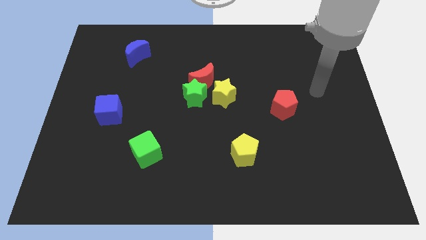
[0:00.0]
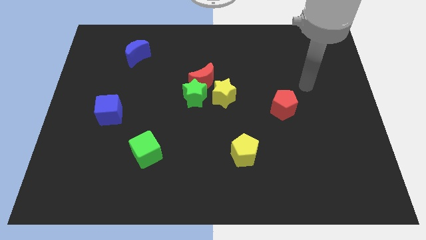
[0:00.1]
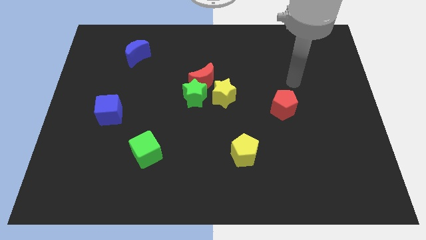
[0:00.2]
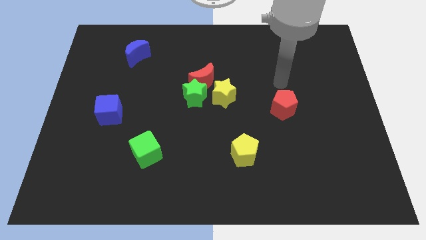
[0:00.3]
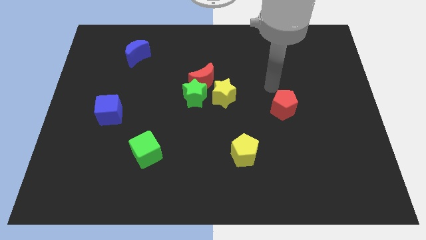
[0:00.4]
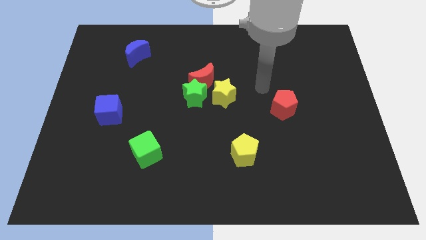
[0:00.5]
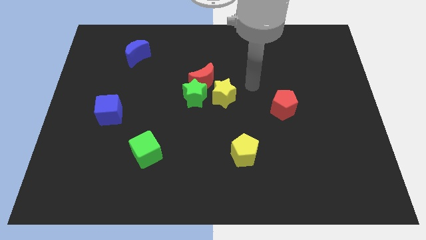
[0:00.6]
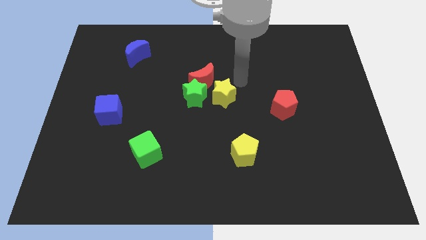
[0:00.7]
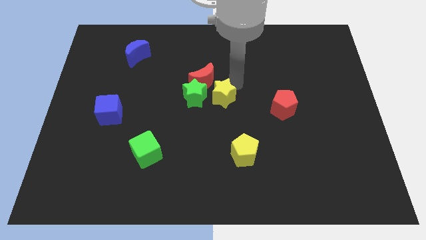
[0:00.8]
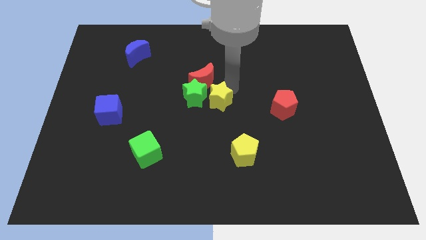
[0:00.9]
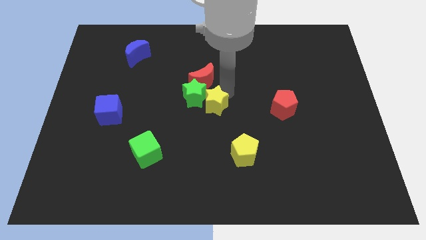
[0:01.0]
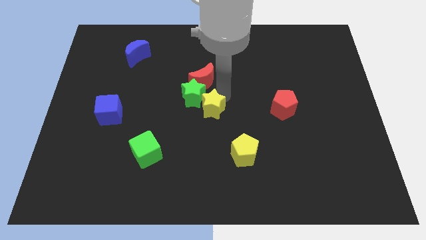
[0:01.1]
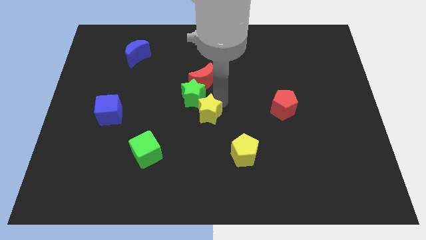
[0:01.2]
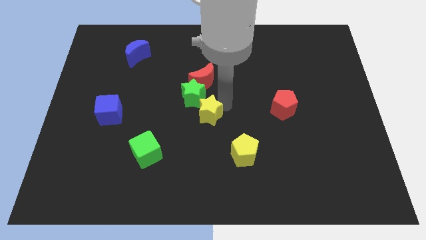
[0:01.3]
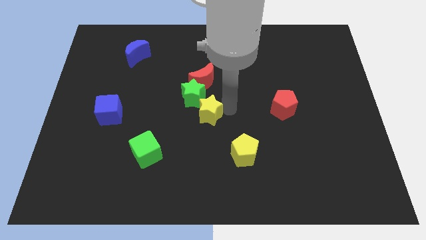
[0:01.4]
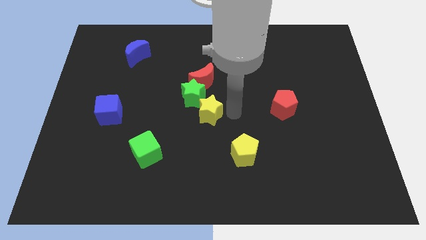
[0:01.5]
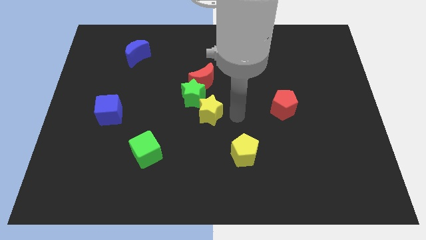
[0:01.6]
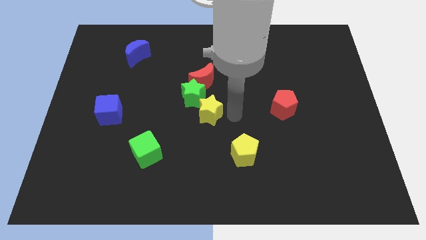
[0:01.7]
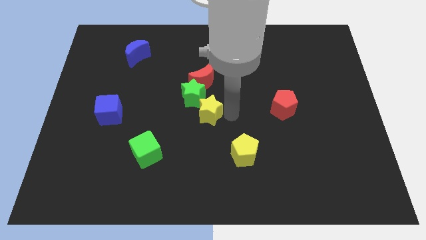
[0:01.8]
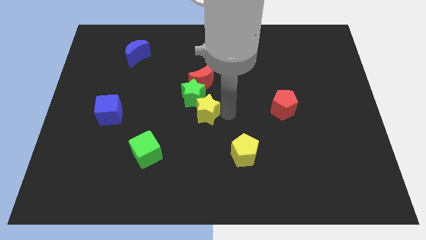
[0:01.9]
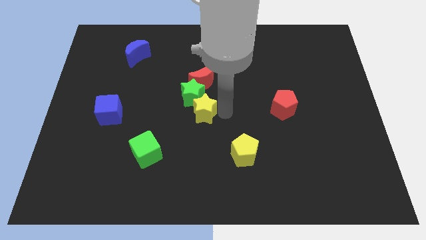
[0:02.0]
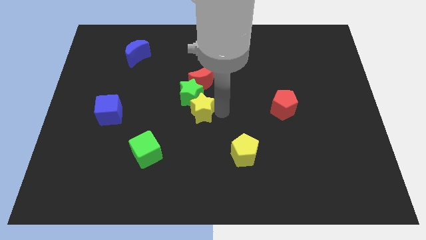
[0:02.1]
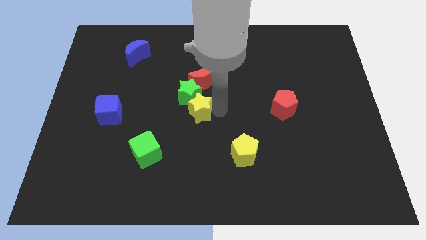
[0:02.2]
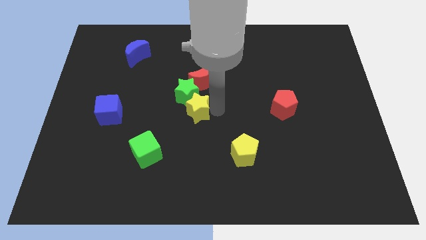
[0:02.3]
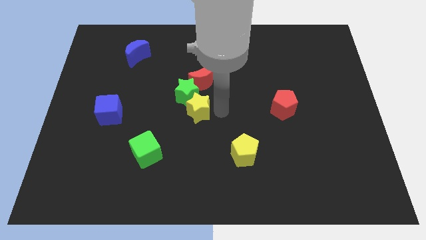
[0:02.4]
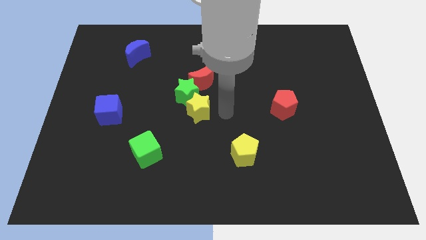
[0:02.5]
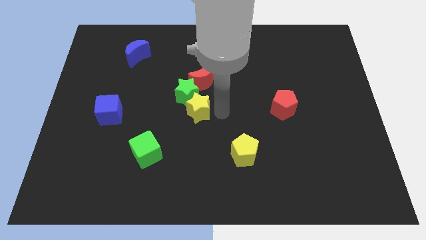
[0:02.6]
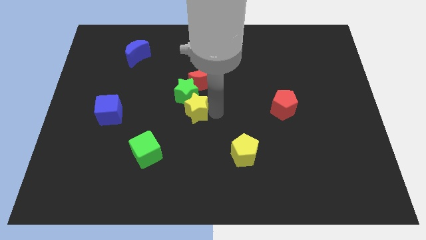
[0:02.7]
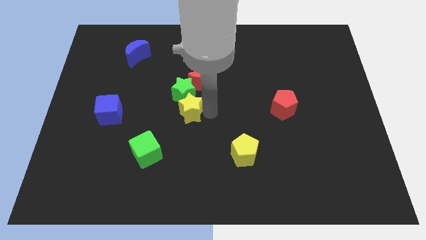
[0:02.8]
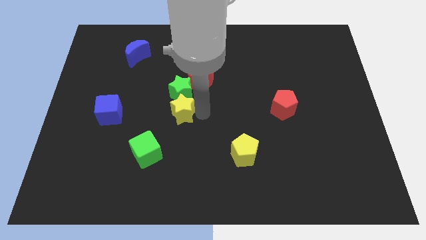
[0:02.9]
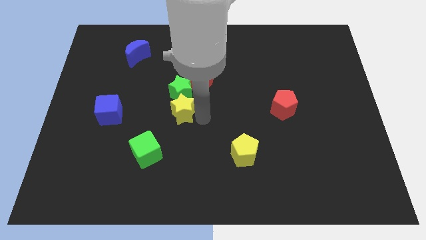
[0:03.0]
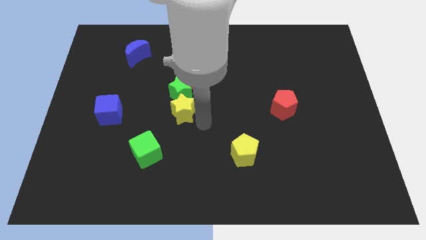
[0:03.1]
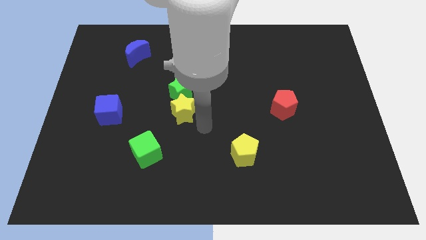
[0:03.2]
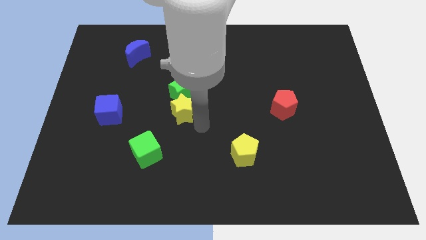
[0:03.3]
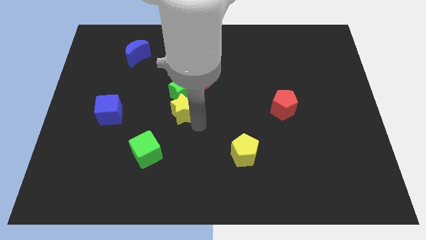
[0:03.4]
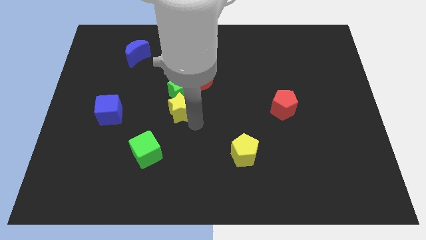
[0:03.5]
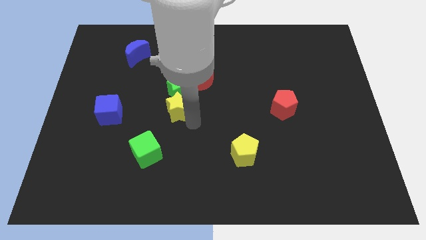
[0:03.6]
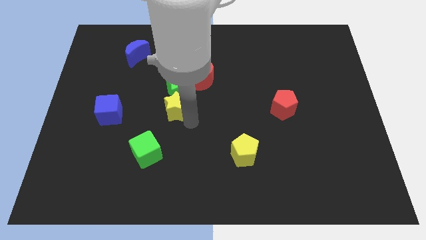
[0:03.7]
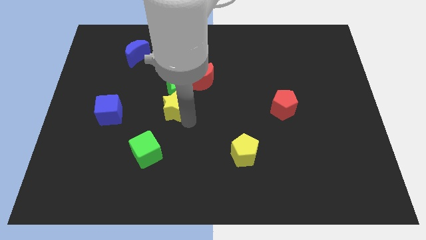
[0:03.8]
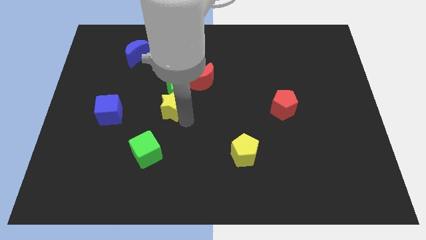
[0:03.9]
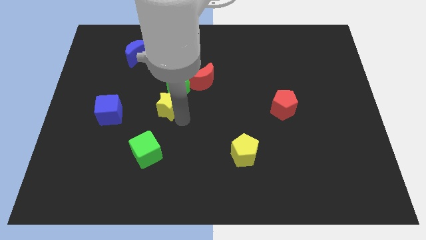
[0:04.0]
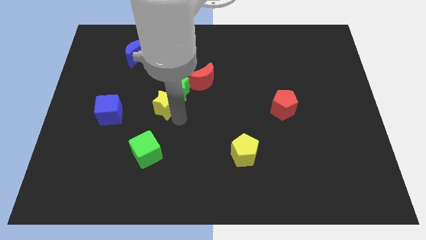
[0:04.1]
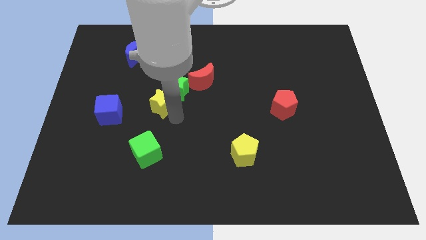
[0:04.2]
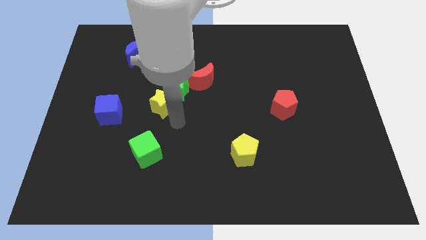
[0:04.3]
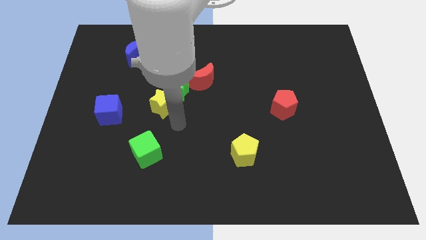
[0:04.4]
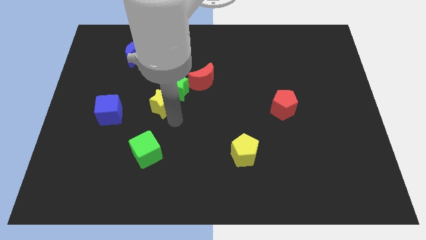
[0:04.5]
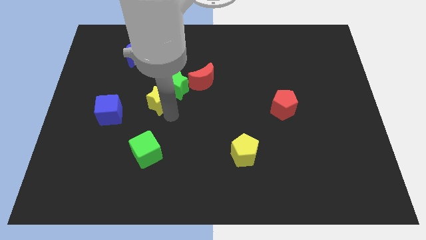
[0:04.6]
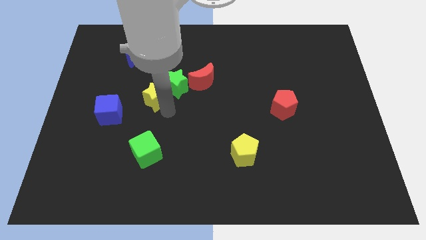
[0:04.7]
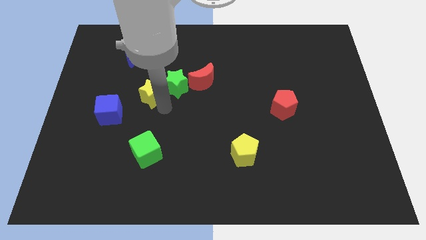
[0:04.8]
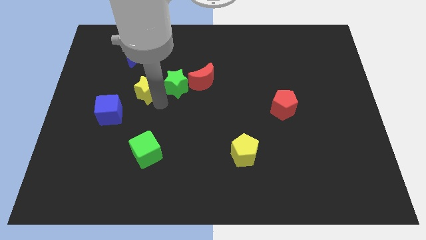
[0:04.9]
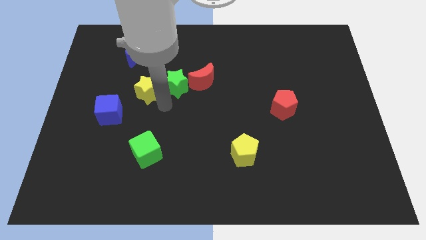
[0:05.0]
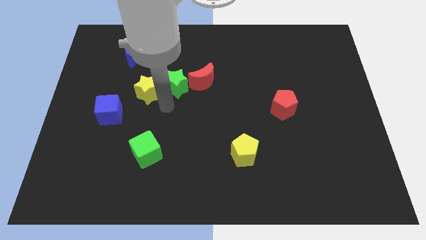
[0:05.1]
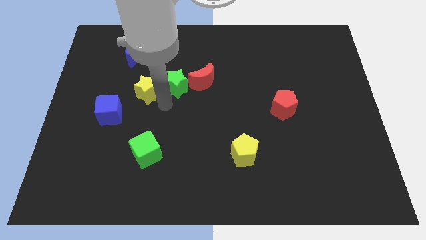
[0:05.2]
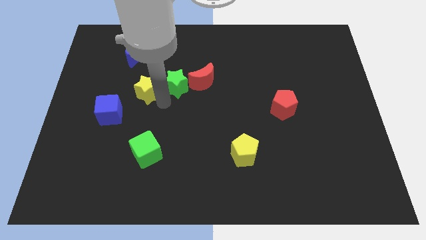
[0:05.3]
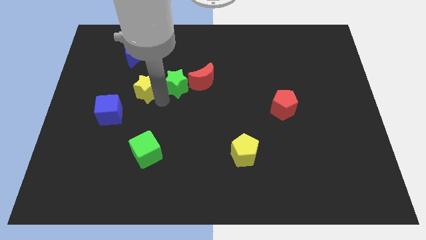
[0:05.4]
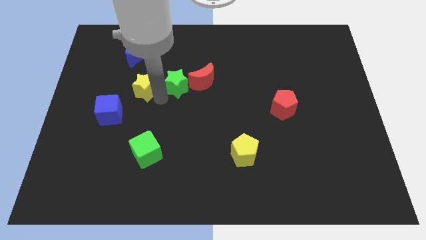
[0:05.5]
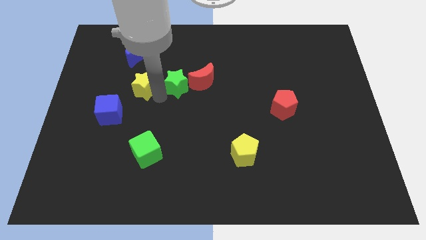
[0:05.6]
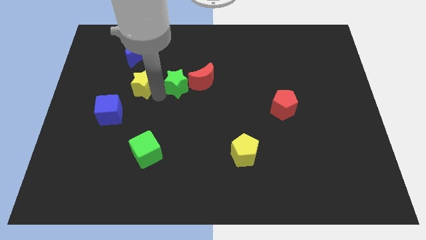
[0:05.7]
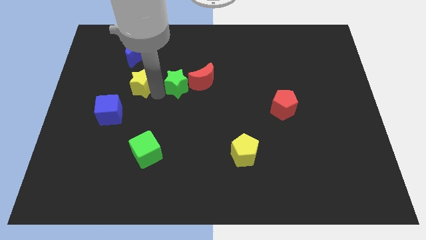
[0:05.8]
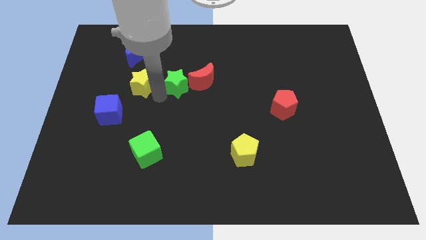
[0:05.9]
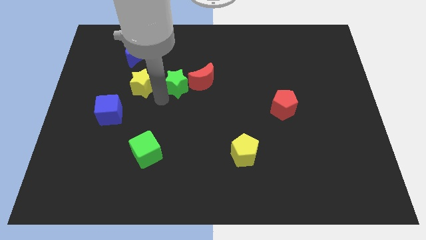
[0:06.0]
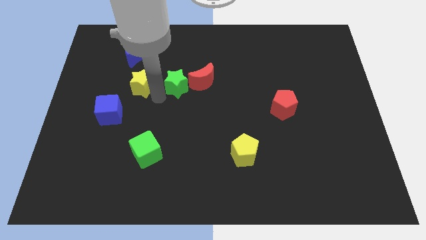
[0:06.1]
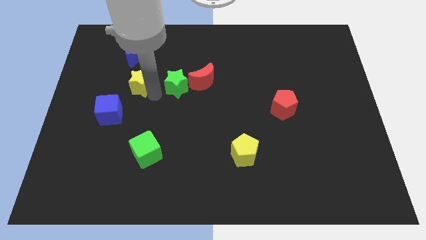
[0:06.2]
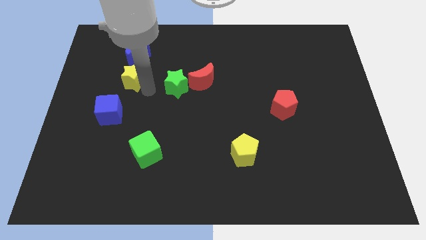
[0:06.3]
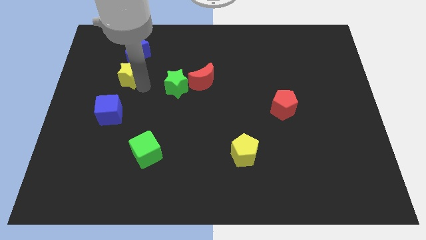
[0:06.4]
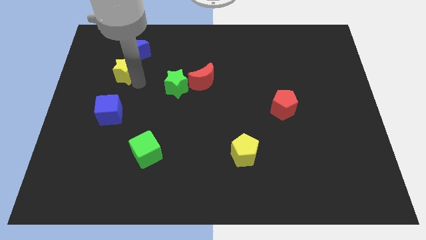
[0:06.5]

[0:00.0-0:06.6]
push the yellow star to the bottom left of the blue moon

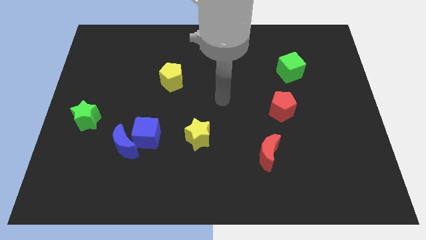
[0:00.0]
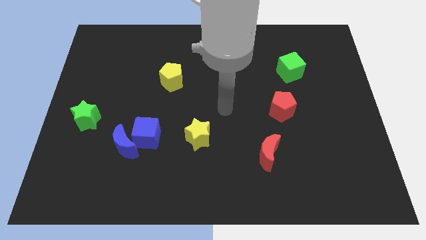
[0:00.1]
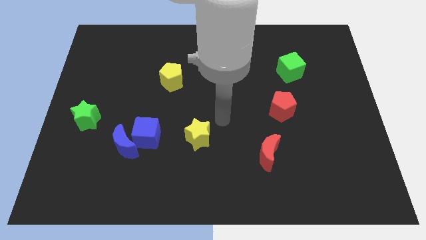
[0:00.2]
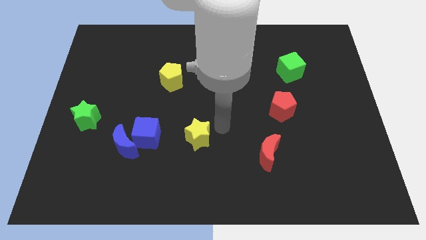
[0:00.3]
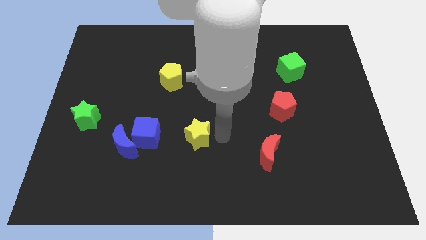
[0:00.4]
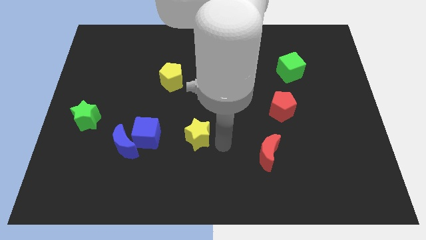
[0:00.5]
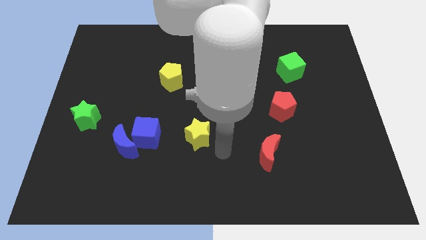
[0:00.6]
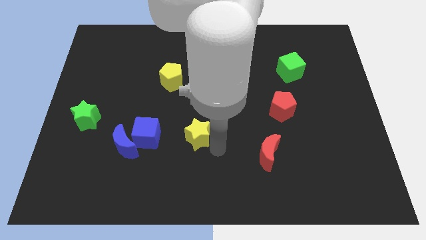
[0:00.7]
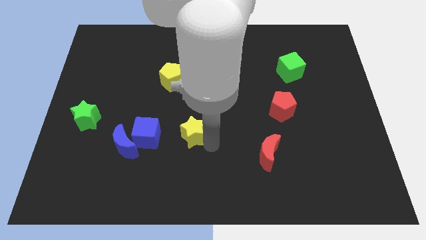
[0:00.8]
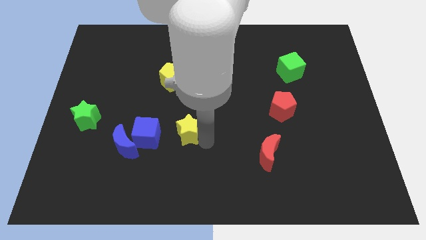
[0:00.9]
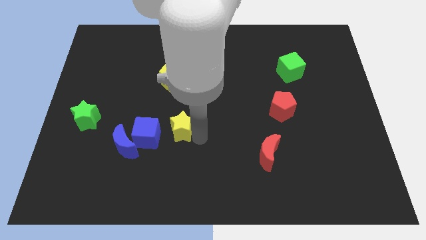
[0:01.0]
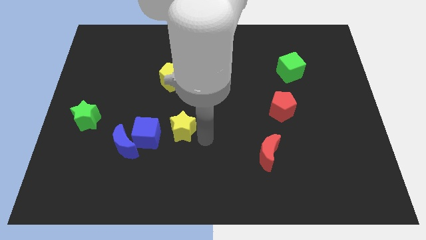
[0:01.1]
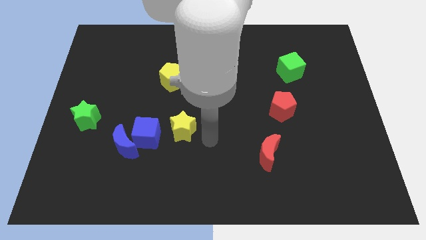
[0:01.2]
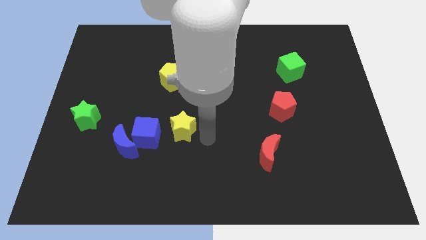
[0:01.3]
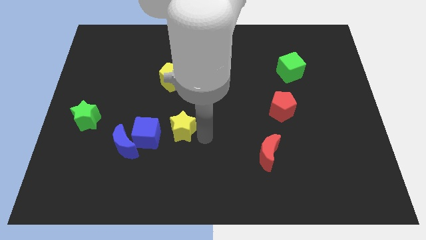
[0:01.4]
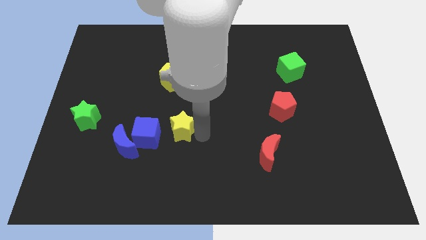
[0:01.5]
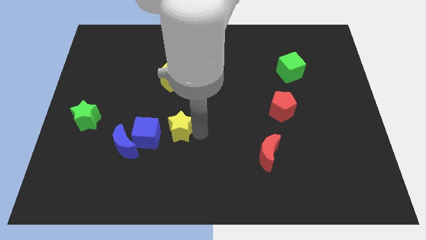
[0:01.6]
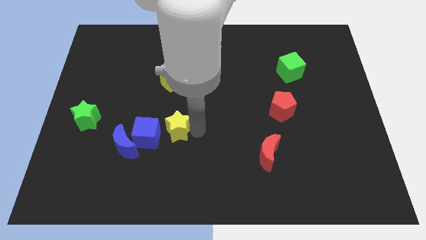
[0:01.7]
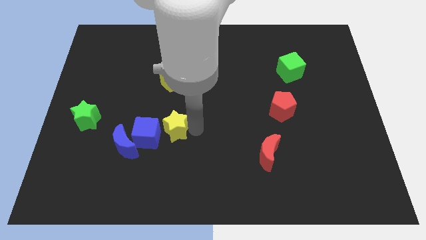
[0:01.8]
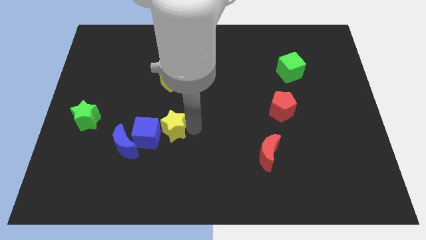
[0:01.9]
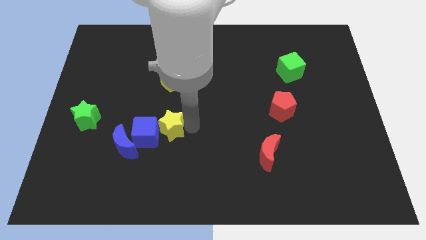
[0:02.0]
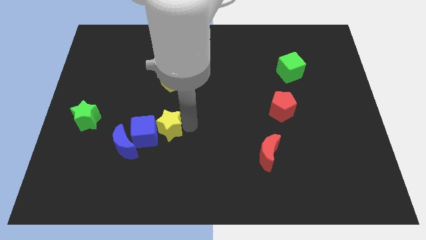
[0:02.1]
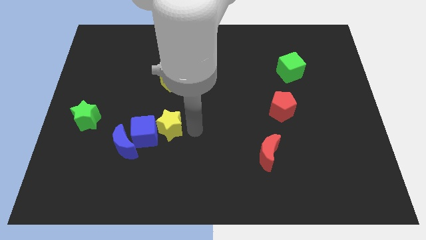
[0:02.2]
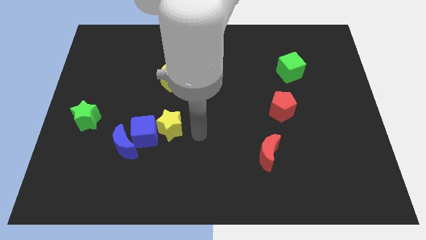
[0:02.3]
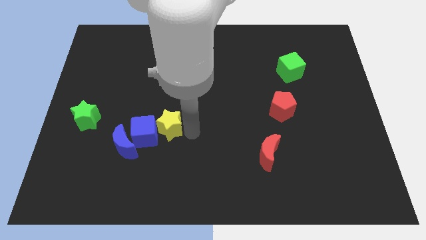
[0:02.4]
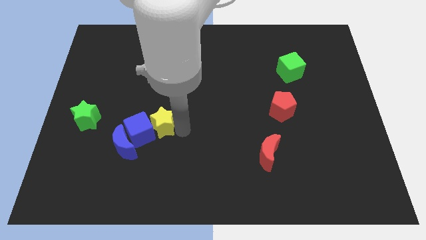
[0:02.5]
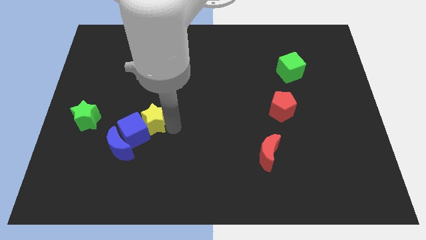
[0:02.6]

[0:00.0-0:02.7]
put the yellow star to the right of the green star
